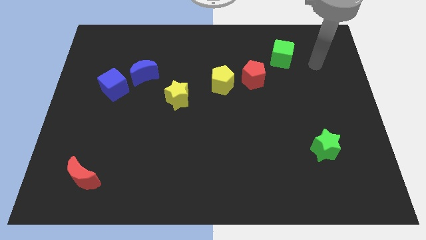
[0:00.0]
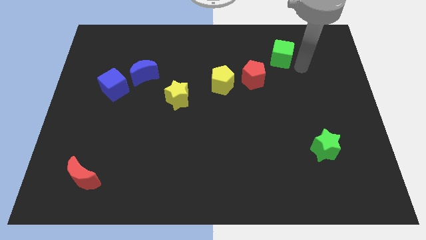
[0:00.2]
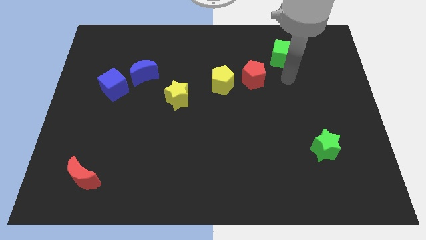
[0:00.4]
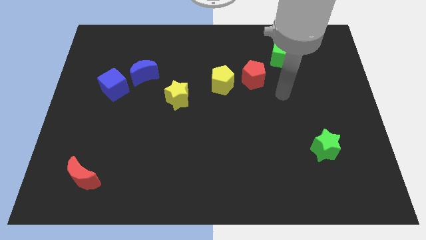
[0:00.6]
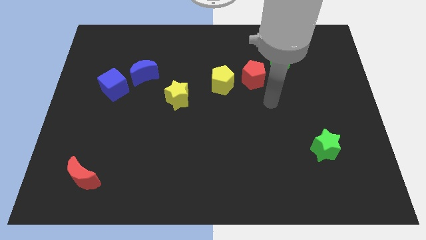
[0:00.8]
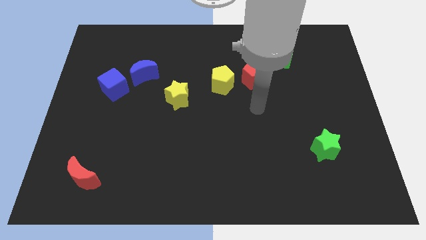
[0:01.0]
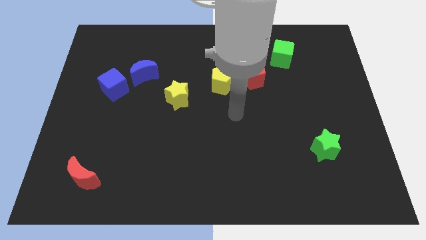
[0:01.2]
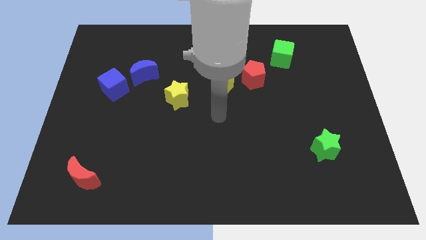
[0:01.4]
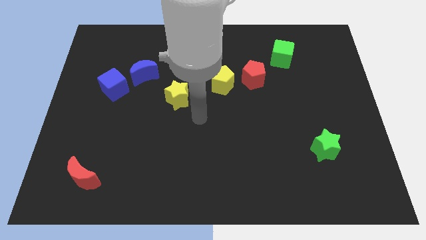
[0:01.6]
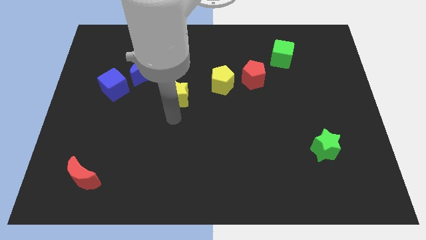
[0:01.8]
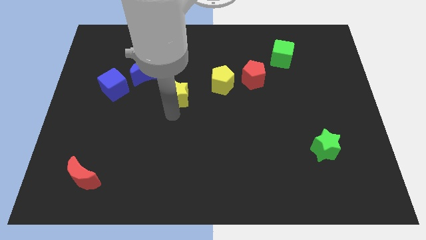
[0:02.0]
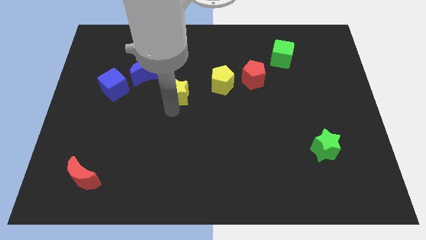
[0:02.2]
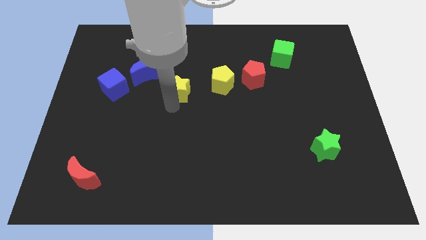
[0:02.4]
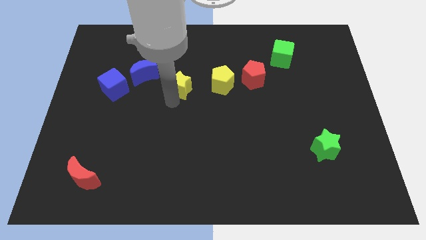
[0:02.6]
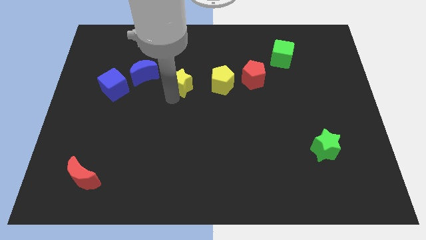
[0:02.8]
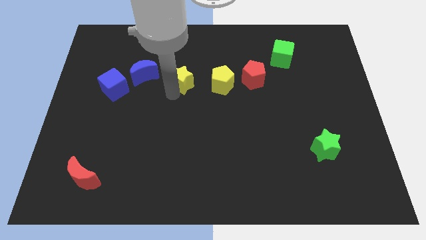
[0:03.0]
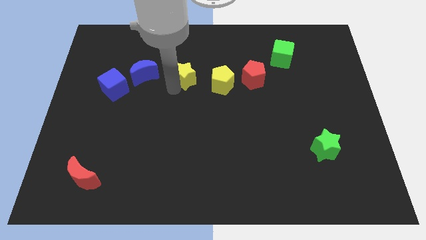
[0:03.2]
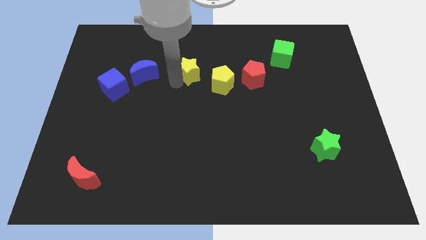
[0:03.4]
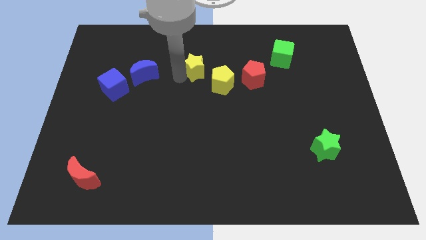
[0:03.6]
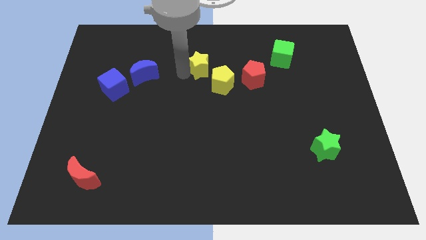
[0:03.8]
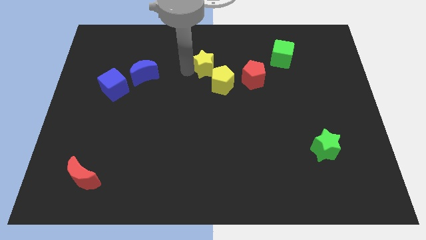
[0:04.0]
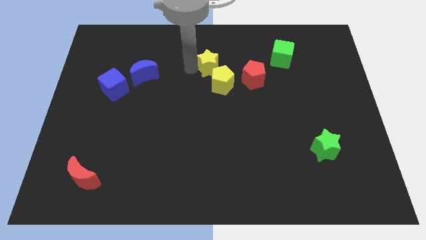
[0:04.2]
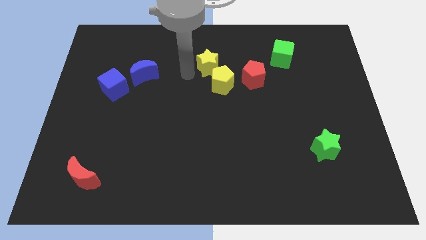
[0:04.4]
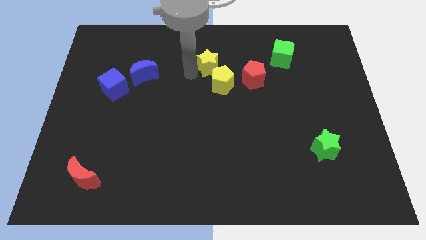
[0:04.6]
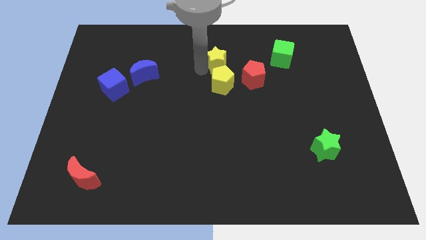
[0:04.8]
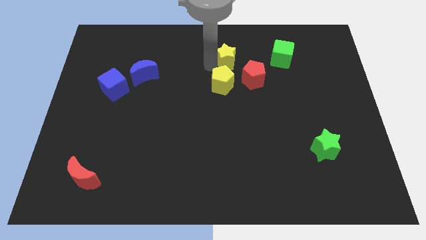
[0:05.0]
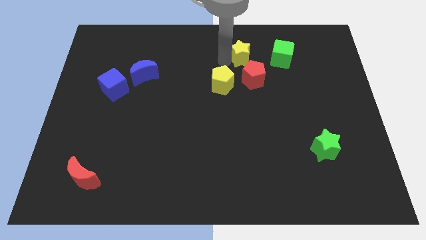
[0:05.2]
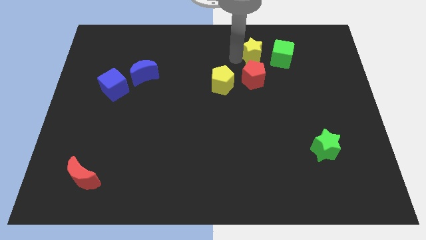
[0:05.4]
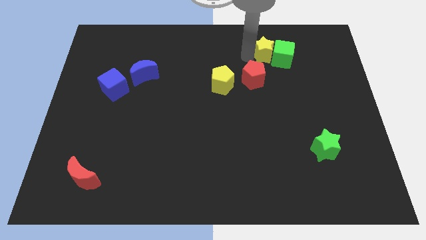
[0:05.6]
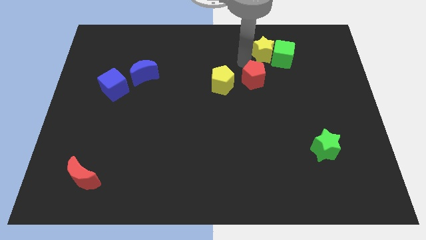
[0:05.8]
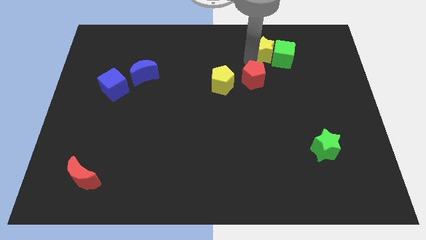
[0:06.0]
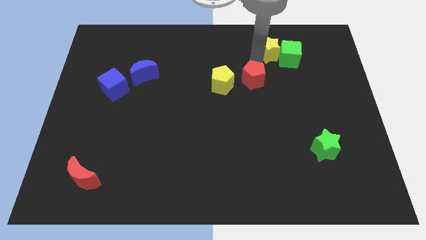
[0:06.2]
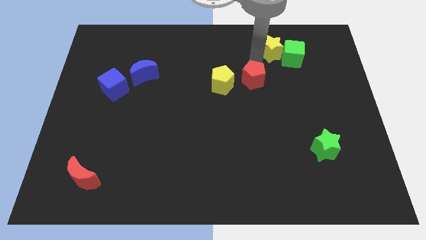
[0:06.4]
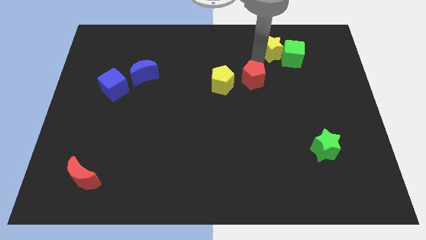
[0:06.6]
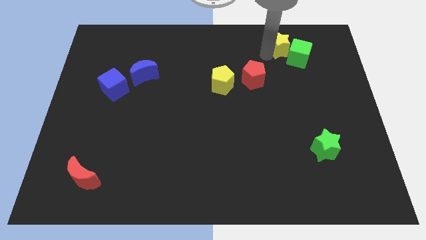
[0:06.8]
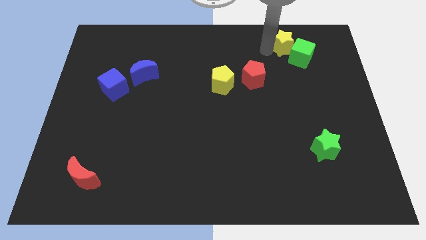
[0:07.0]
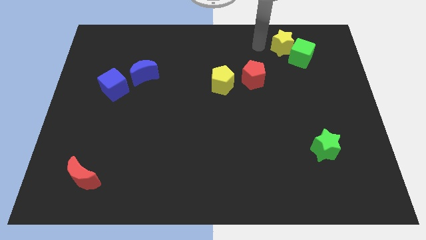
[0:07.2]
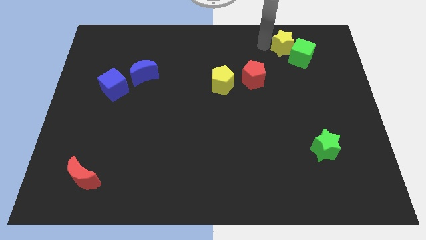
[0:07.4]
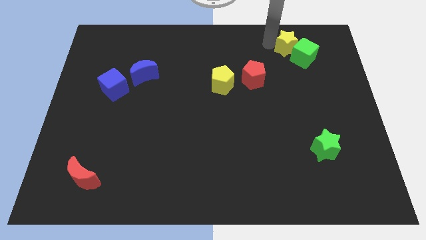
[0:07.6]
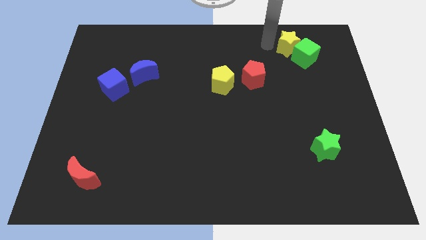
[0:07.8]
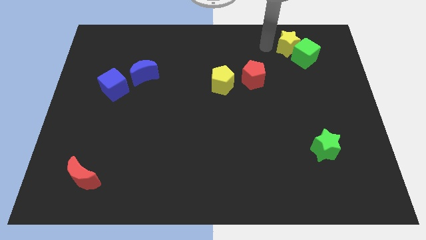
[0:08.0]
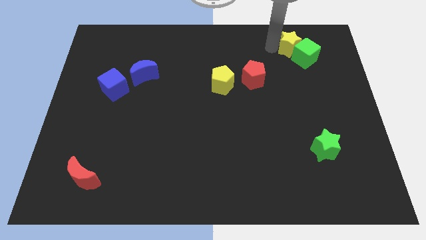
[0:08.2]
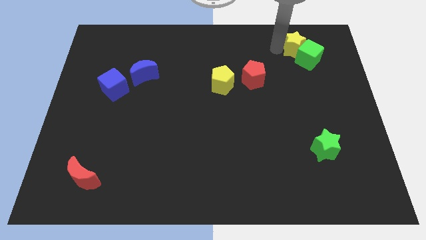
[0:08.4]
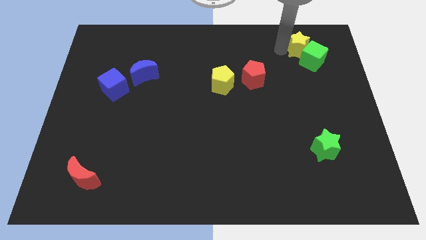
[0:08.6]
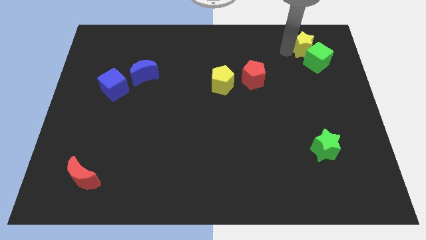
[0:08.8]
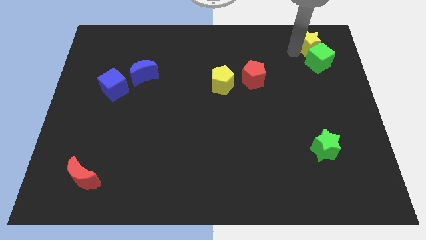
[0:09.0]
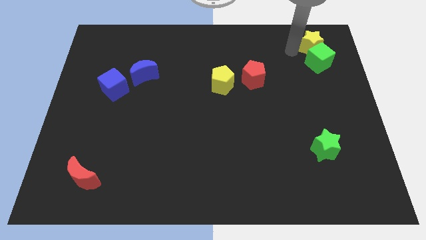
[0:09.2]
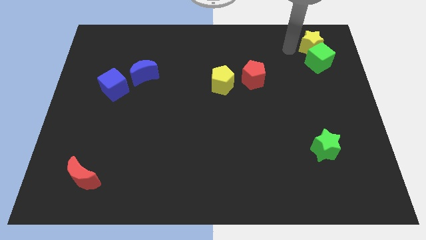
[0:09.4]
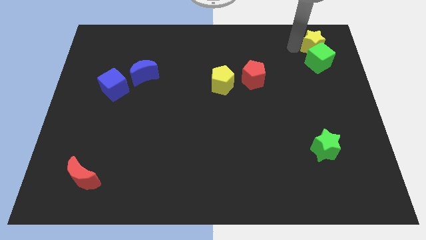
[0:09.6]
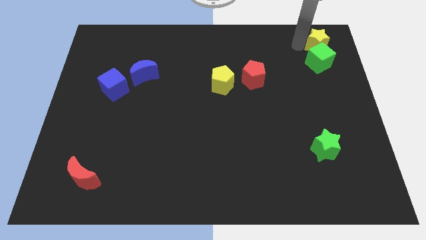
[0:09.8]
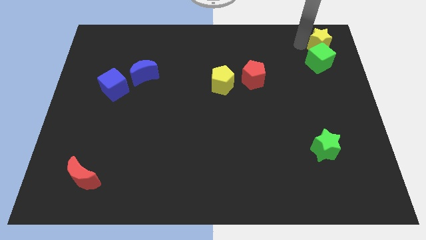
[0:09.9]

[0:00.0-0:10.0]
slide the yellow star to the top right of the board

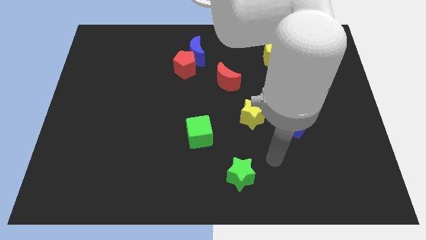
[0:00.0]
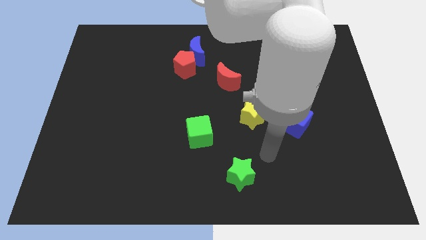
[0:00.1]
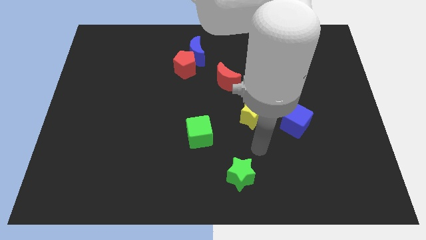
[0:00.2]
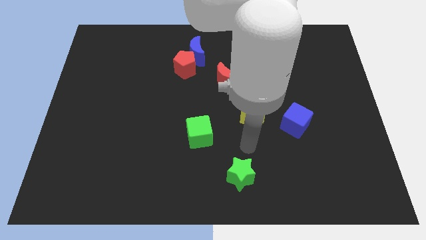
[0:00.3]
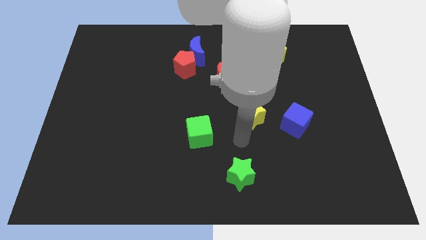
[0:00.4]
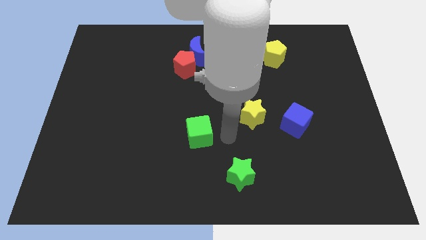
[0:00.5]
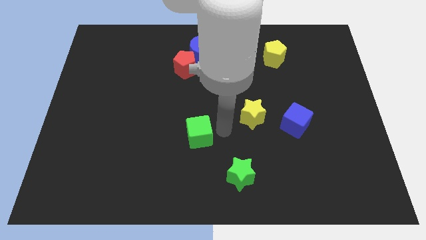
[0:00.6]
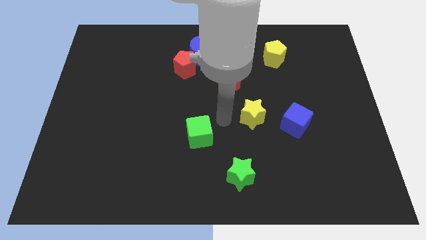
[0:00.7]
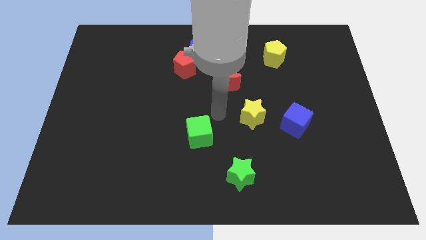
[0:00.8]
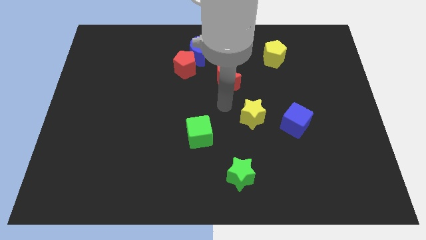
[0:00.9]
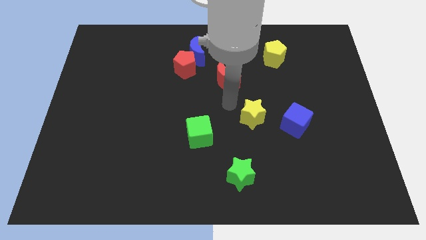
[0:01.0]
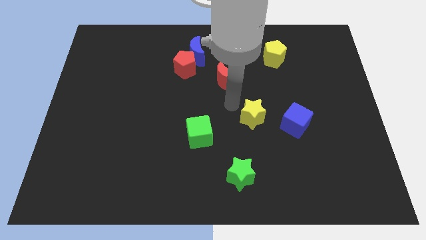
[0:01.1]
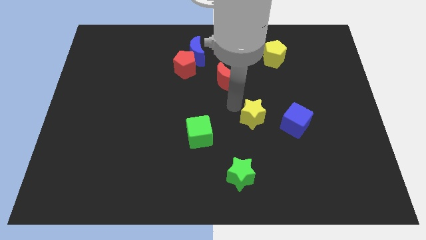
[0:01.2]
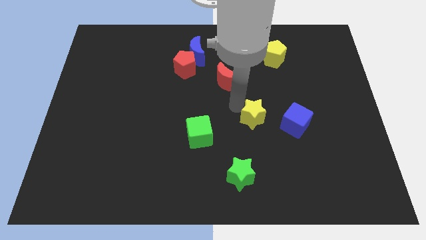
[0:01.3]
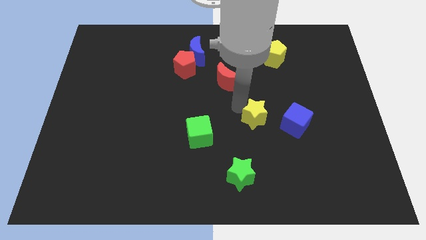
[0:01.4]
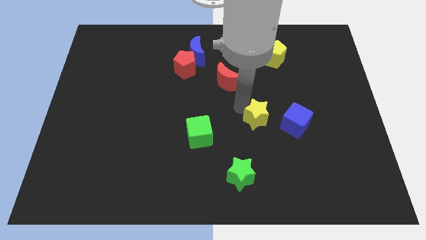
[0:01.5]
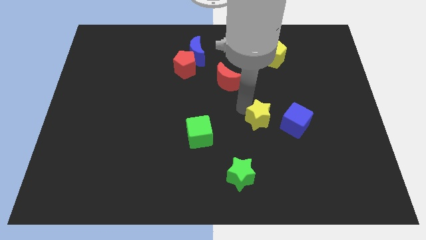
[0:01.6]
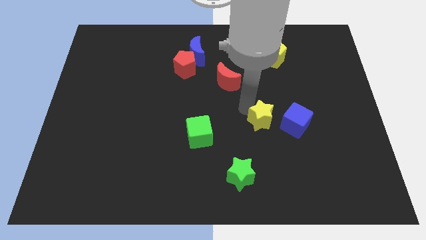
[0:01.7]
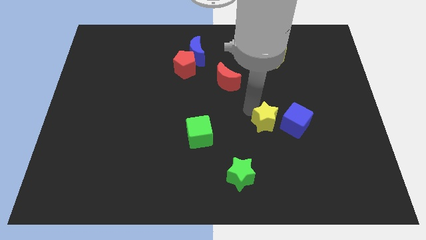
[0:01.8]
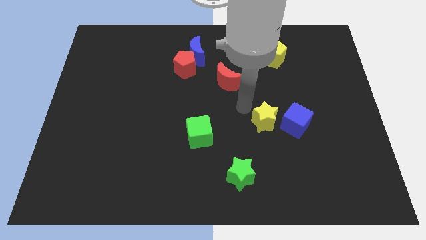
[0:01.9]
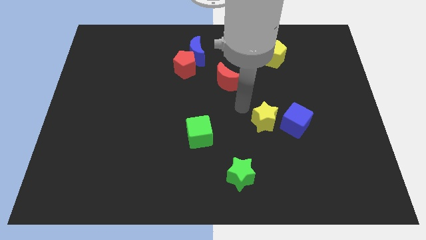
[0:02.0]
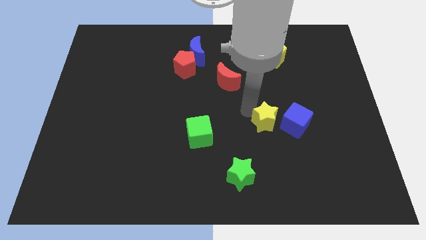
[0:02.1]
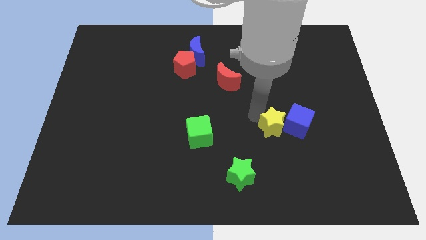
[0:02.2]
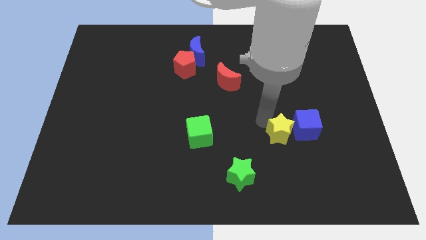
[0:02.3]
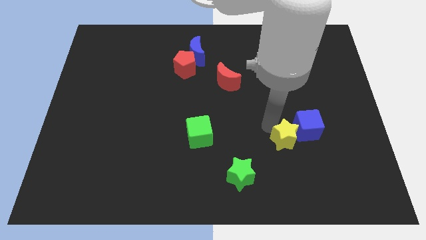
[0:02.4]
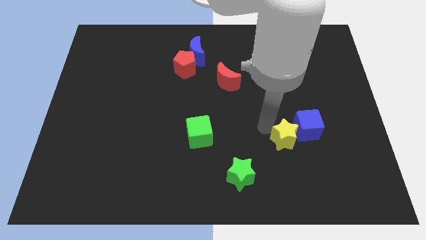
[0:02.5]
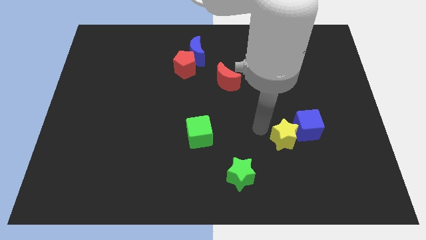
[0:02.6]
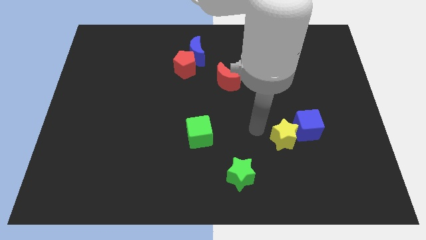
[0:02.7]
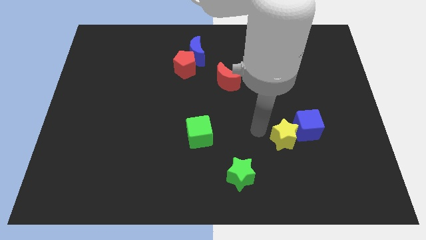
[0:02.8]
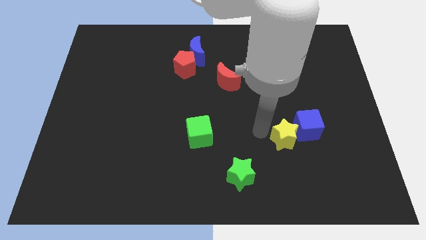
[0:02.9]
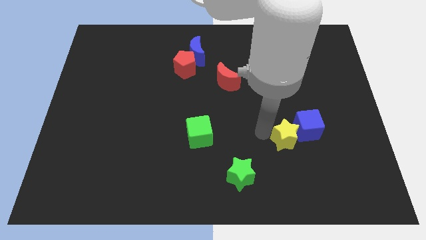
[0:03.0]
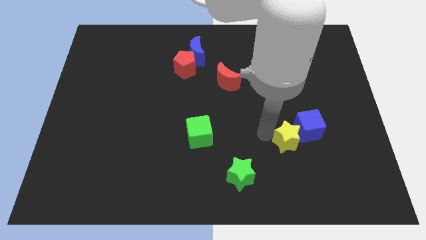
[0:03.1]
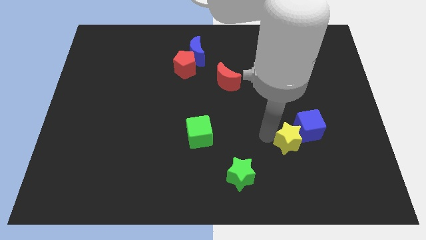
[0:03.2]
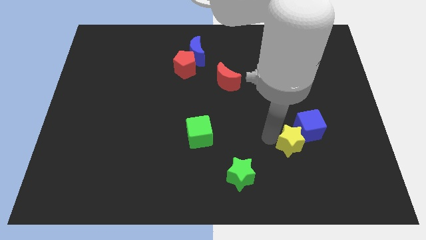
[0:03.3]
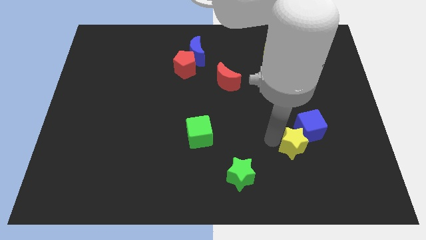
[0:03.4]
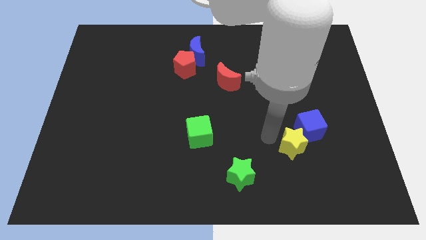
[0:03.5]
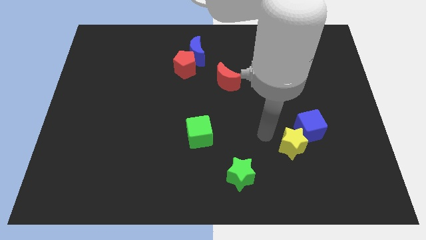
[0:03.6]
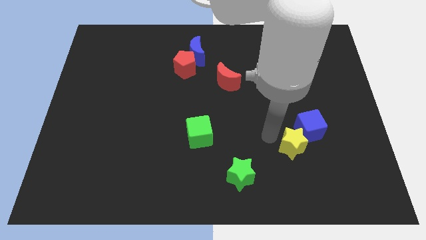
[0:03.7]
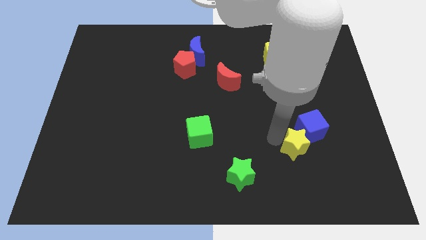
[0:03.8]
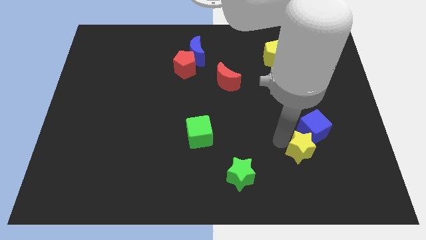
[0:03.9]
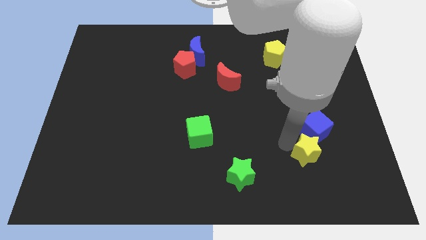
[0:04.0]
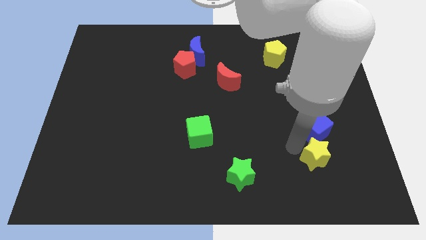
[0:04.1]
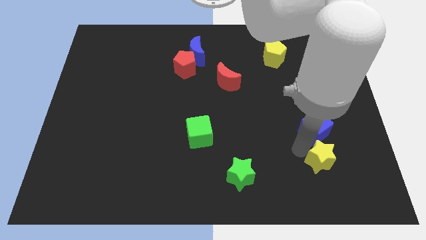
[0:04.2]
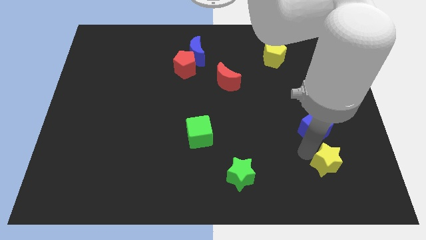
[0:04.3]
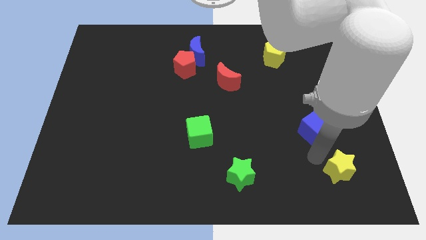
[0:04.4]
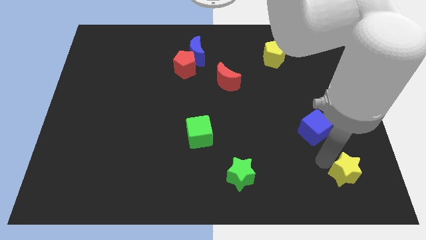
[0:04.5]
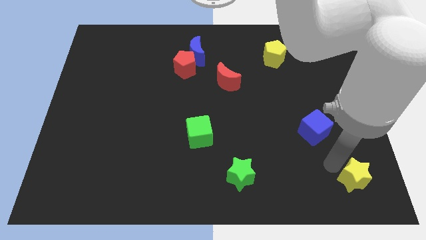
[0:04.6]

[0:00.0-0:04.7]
push the yellow star to the lower right corner
